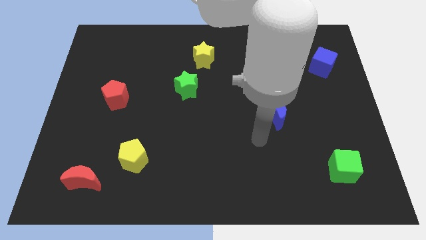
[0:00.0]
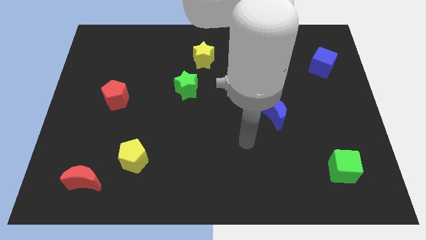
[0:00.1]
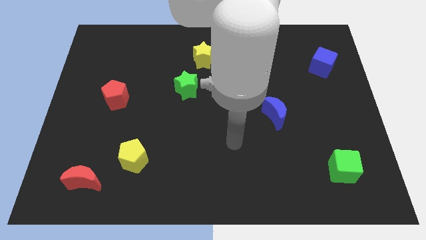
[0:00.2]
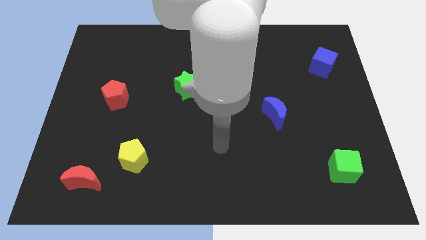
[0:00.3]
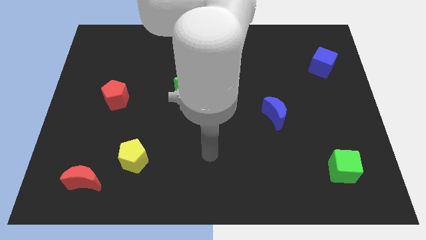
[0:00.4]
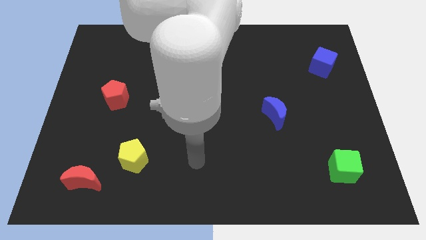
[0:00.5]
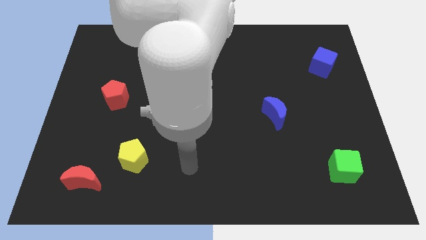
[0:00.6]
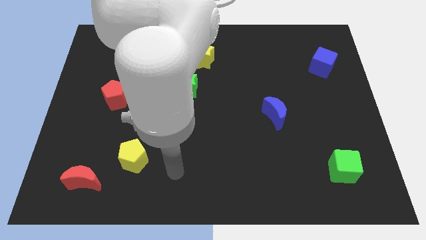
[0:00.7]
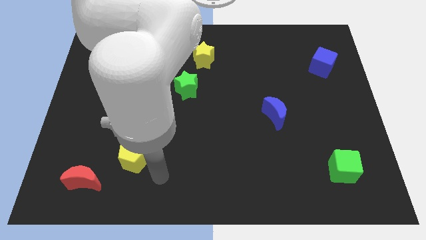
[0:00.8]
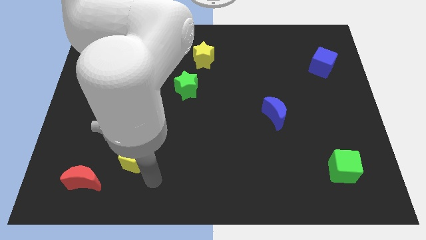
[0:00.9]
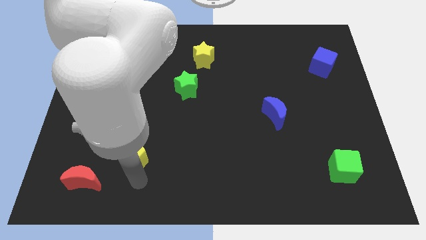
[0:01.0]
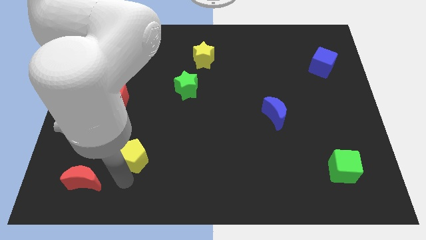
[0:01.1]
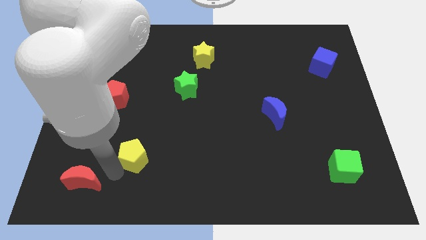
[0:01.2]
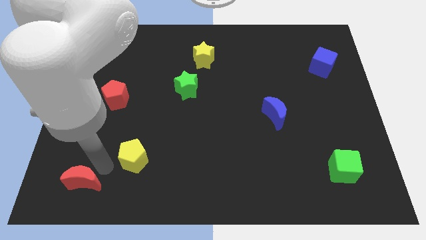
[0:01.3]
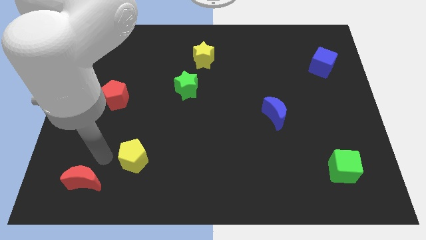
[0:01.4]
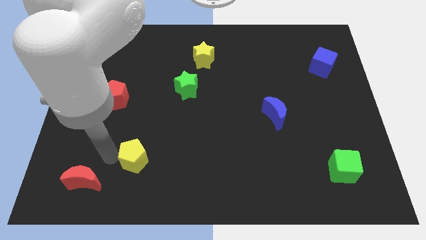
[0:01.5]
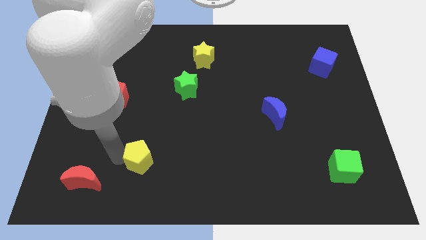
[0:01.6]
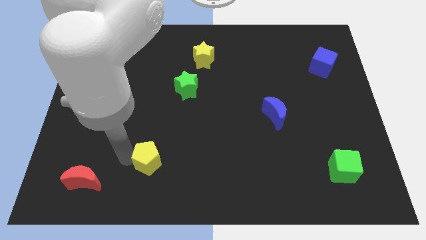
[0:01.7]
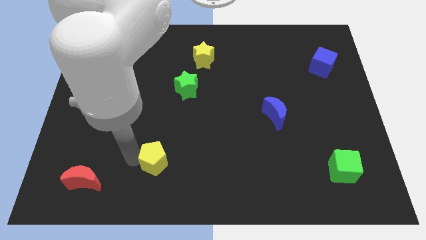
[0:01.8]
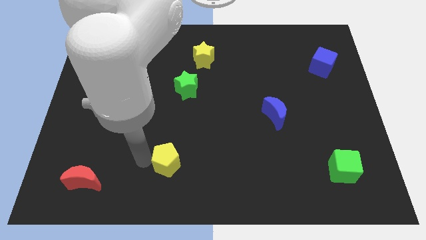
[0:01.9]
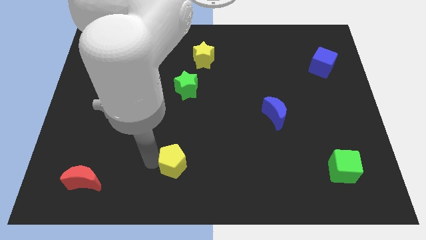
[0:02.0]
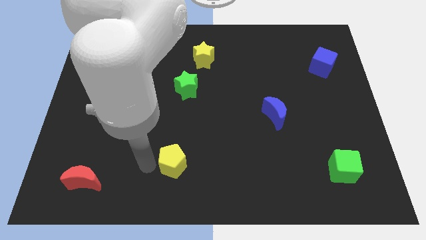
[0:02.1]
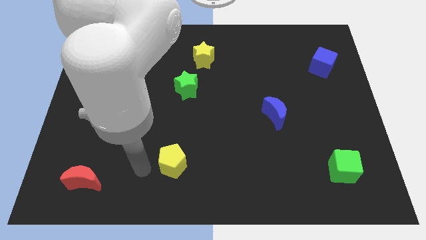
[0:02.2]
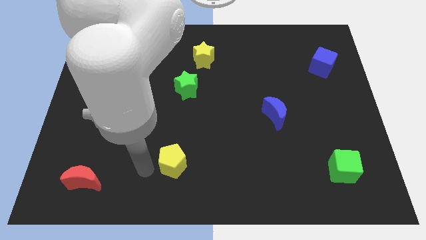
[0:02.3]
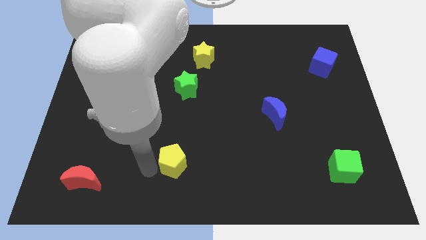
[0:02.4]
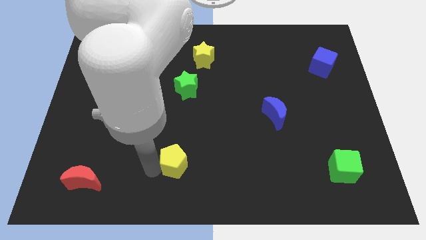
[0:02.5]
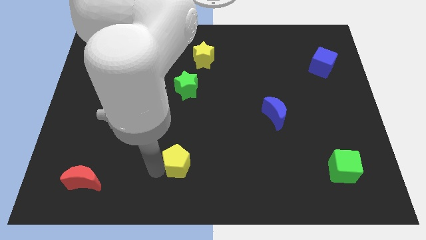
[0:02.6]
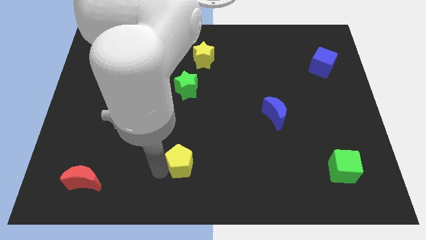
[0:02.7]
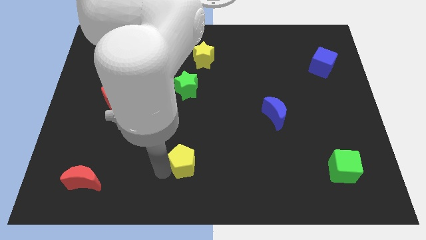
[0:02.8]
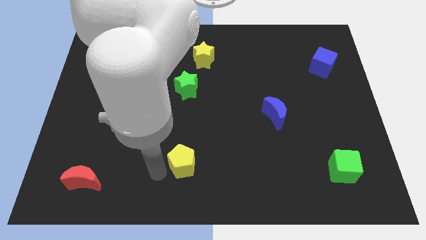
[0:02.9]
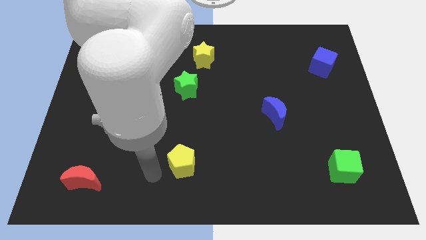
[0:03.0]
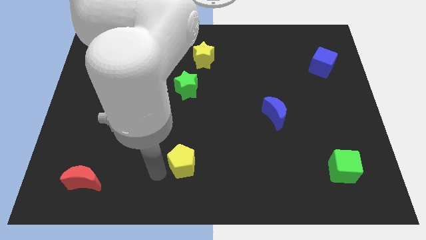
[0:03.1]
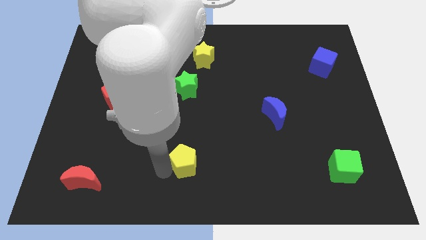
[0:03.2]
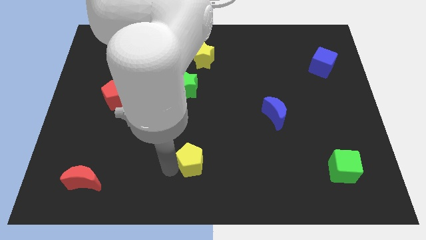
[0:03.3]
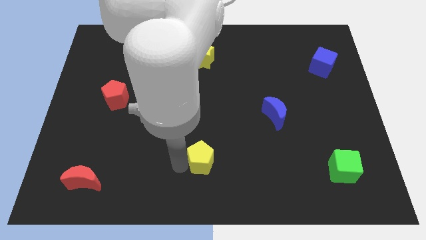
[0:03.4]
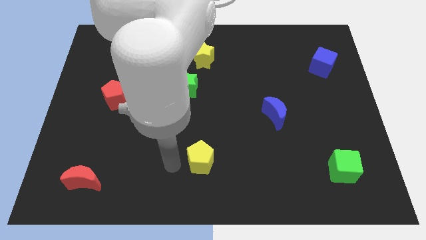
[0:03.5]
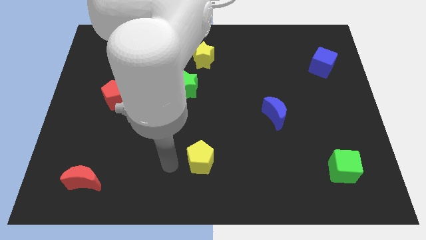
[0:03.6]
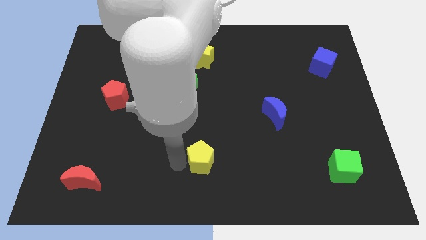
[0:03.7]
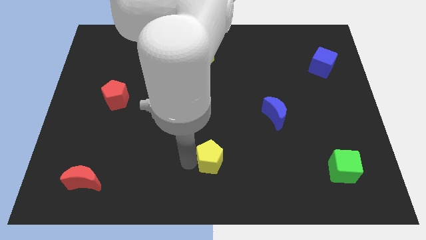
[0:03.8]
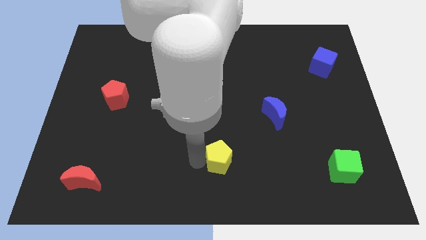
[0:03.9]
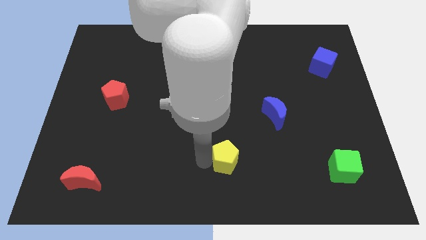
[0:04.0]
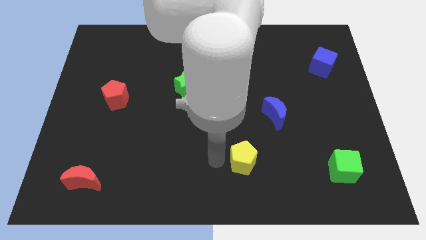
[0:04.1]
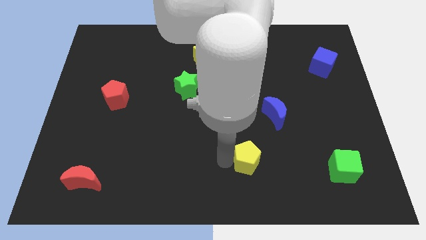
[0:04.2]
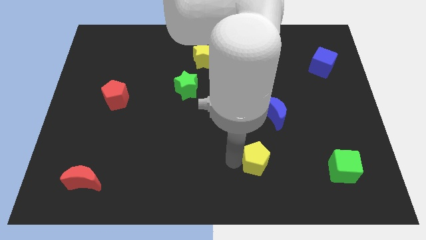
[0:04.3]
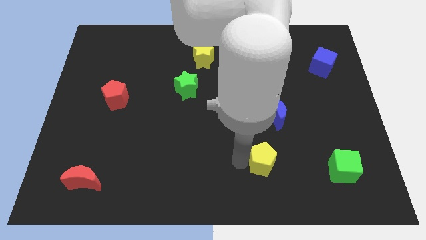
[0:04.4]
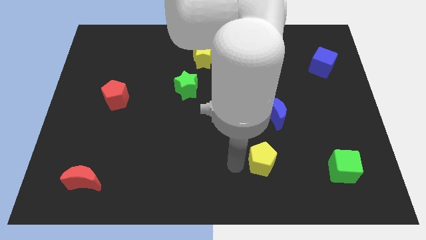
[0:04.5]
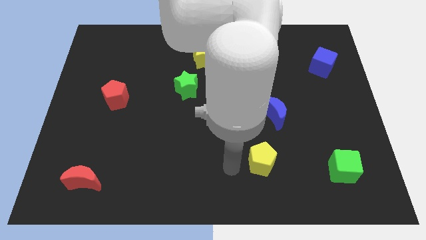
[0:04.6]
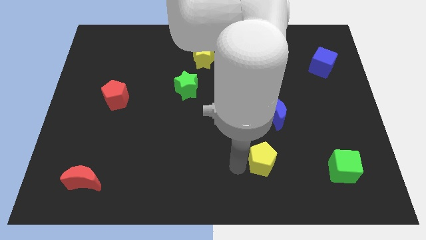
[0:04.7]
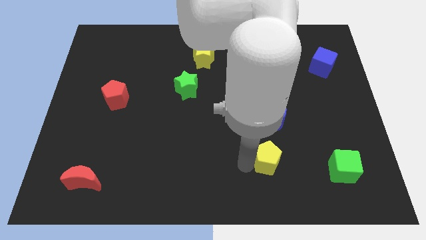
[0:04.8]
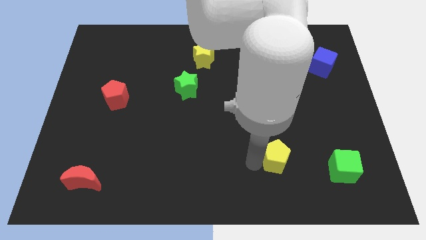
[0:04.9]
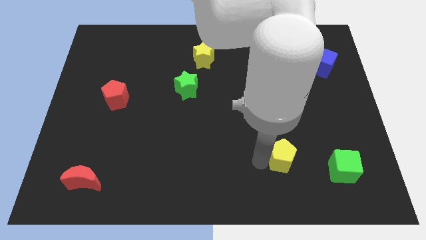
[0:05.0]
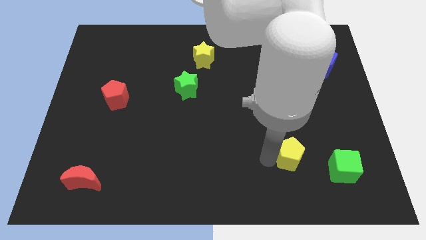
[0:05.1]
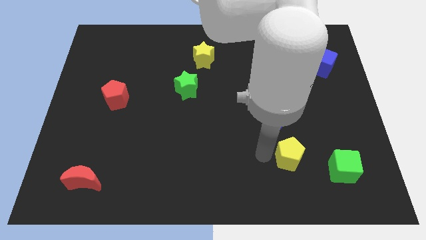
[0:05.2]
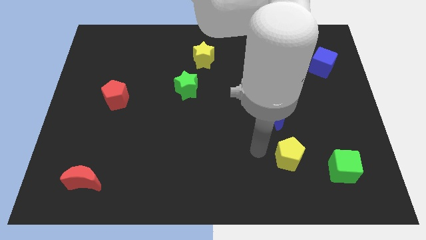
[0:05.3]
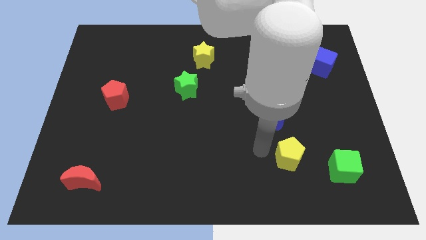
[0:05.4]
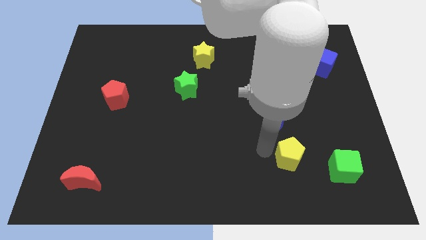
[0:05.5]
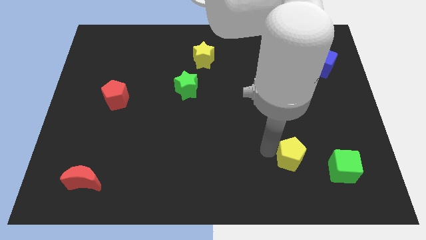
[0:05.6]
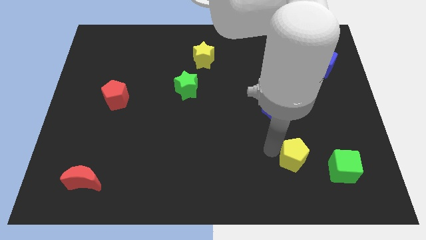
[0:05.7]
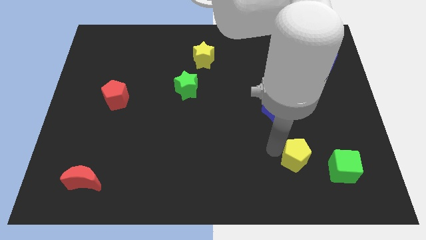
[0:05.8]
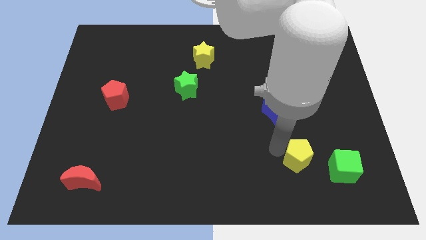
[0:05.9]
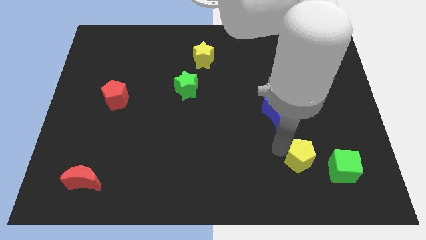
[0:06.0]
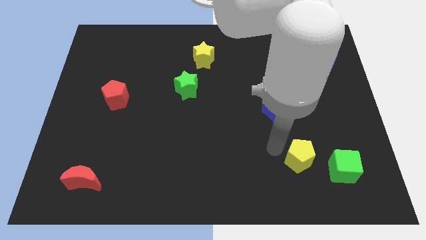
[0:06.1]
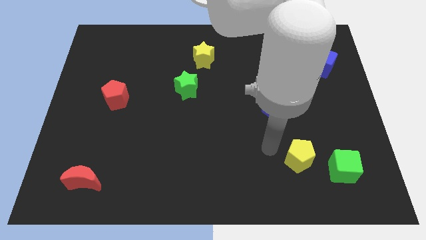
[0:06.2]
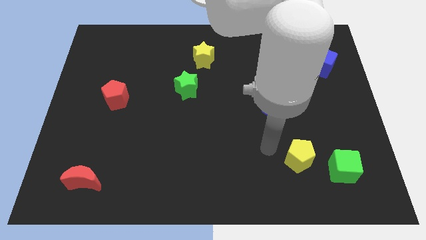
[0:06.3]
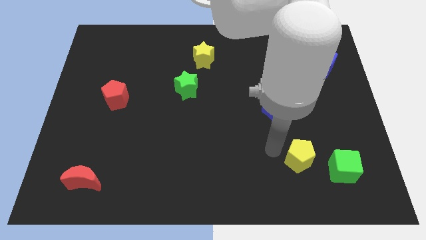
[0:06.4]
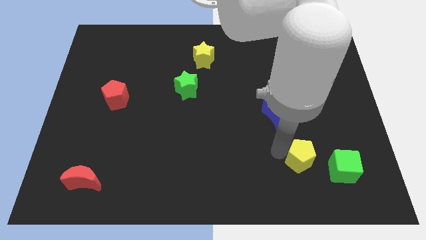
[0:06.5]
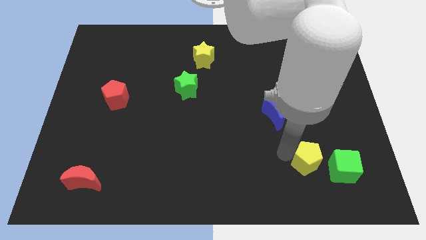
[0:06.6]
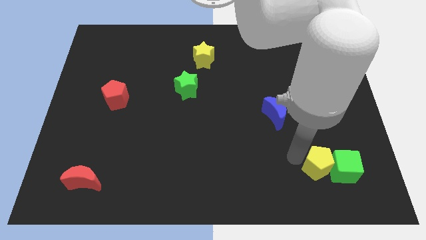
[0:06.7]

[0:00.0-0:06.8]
move the yellow pentagon to the green cube

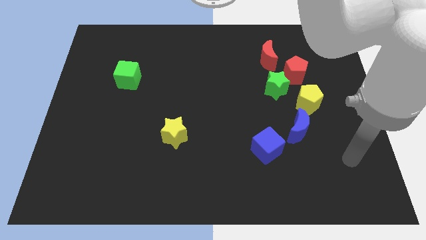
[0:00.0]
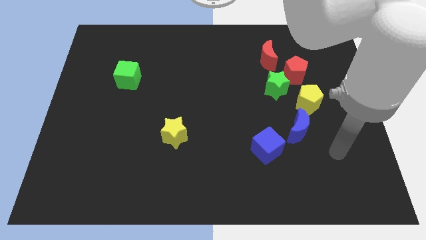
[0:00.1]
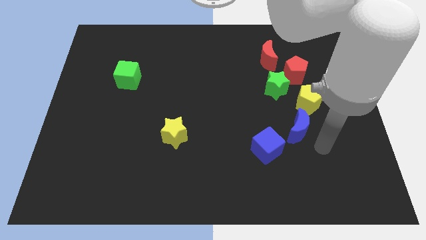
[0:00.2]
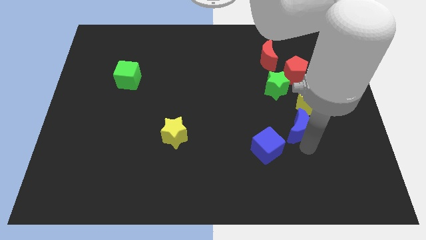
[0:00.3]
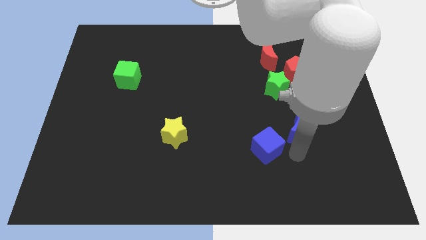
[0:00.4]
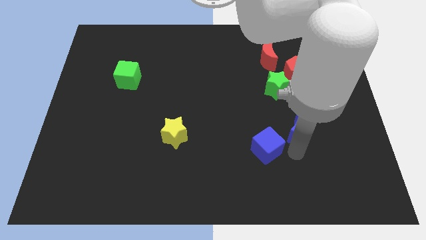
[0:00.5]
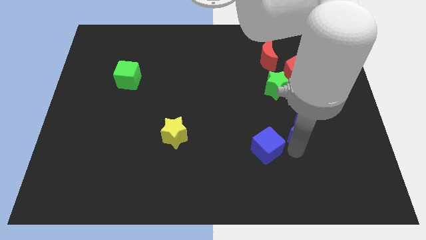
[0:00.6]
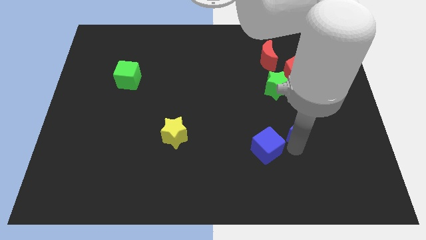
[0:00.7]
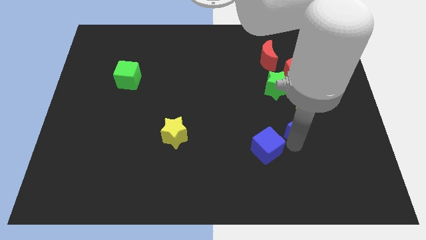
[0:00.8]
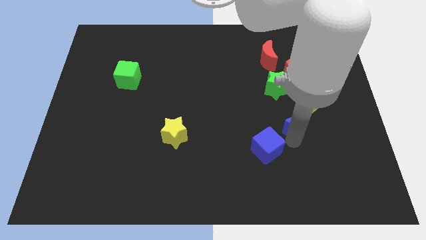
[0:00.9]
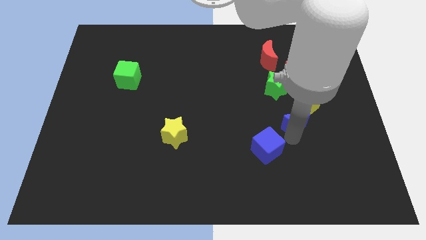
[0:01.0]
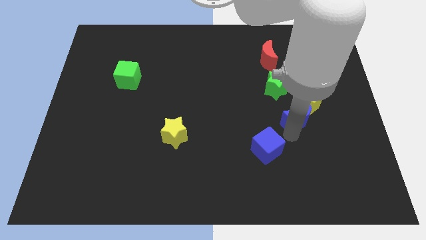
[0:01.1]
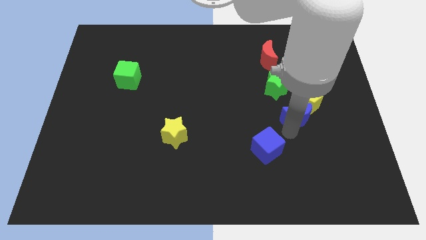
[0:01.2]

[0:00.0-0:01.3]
slide the blue moon close to the yellow pentagon

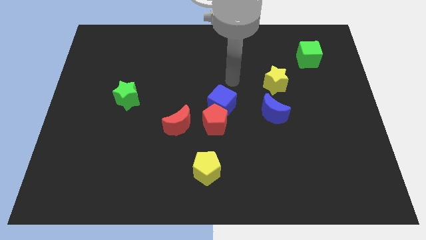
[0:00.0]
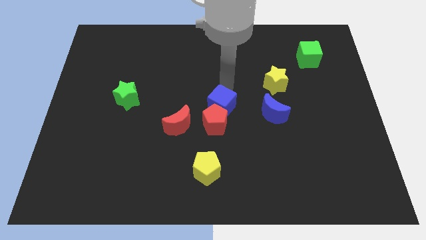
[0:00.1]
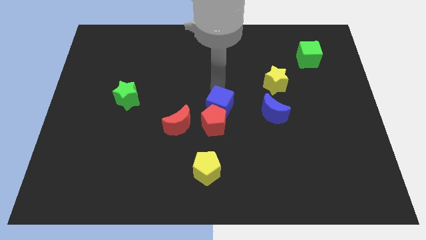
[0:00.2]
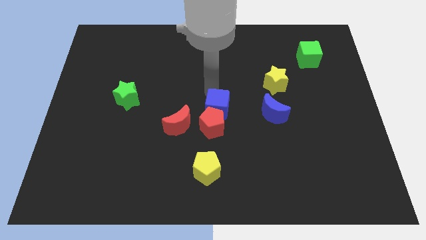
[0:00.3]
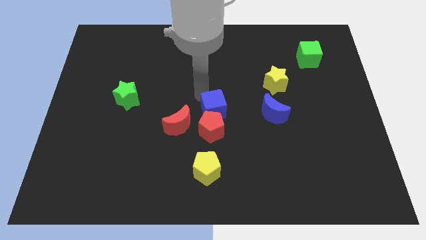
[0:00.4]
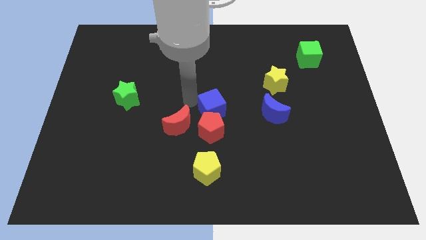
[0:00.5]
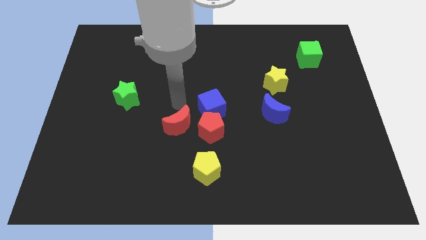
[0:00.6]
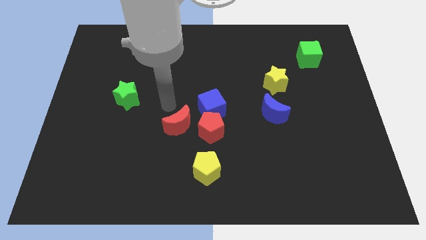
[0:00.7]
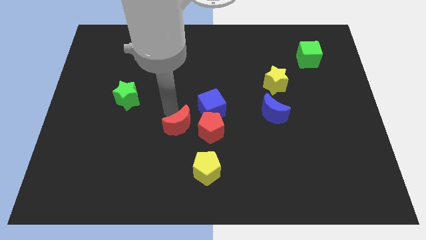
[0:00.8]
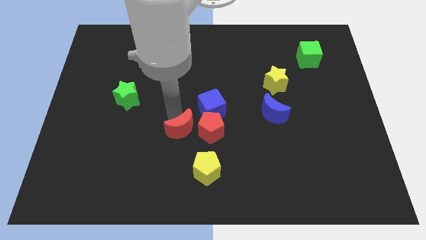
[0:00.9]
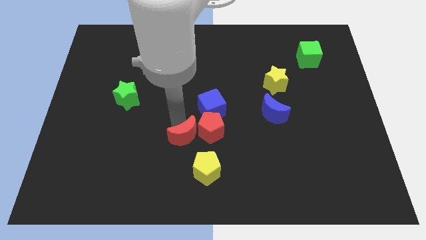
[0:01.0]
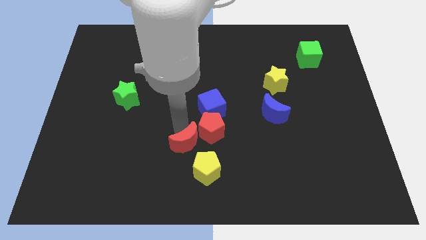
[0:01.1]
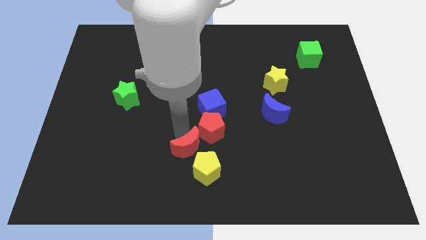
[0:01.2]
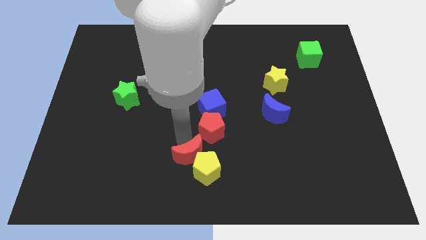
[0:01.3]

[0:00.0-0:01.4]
put the red moon next to the yellow pentagon
